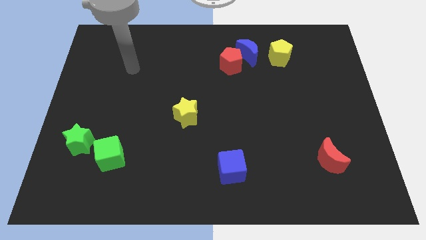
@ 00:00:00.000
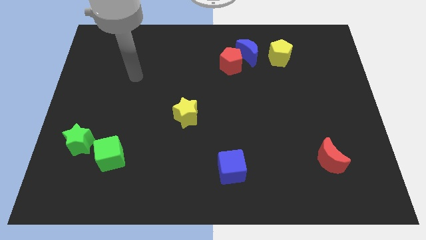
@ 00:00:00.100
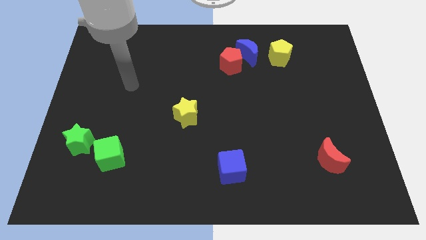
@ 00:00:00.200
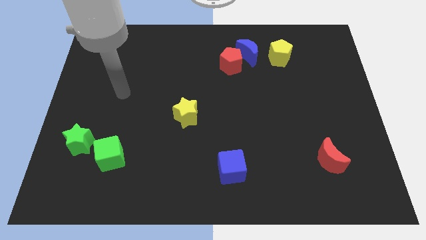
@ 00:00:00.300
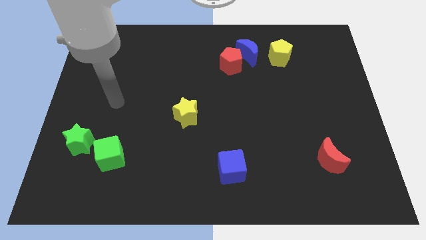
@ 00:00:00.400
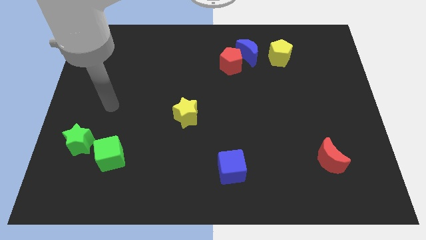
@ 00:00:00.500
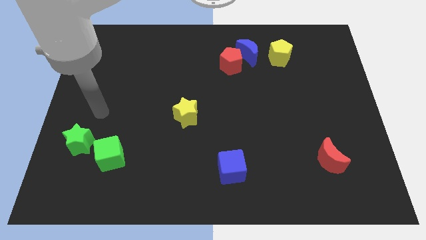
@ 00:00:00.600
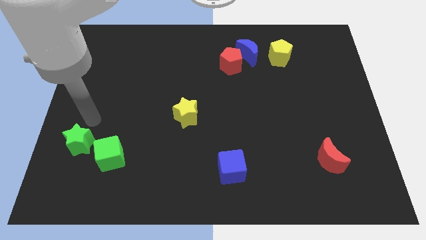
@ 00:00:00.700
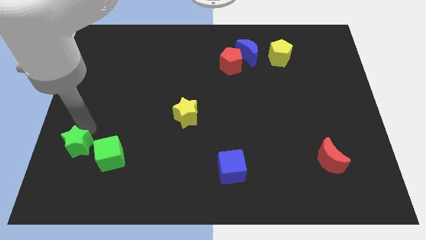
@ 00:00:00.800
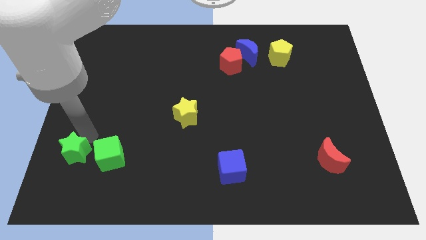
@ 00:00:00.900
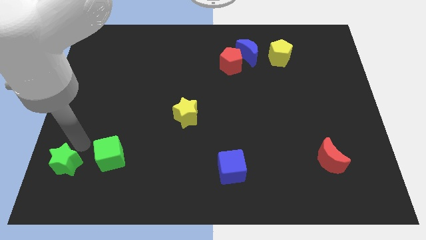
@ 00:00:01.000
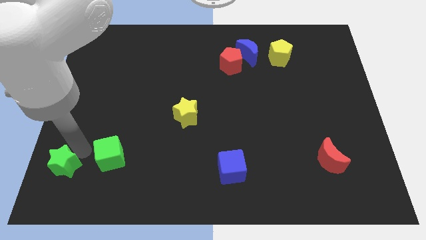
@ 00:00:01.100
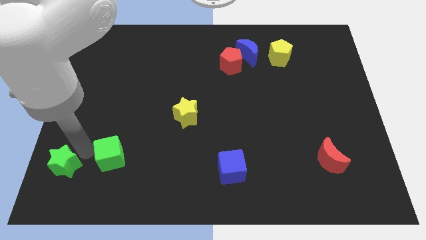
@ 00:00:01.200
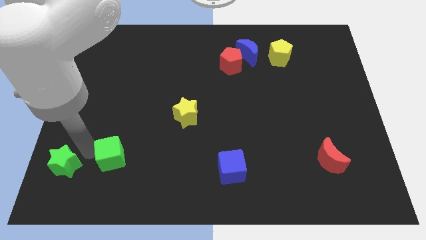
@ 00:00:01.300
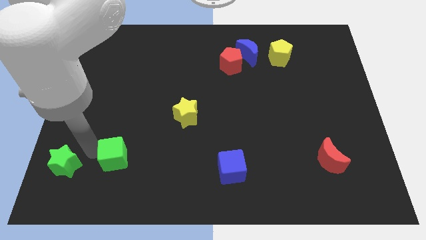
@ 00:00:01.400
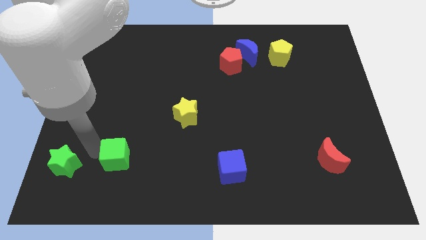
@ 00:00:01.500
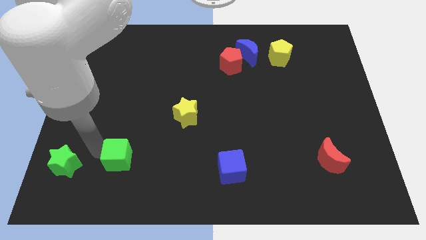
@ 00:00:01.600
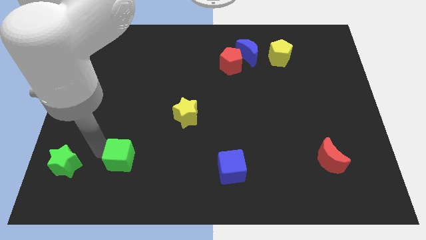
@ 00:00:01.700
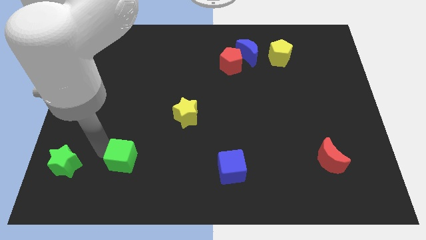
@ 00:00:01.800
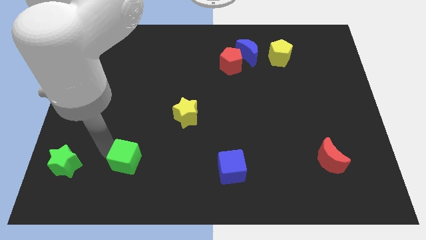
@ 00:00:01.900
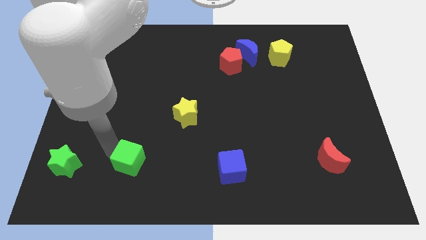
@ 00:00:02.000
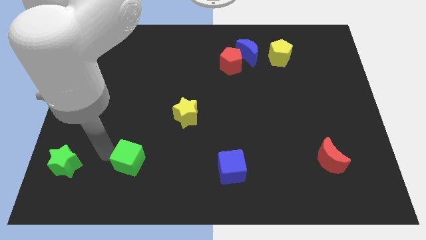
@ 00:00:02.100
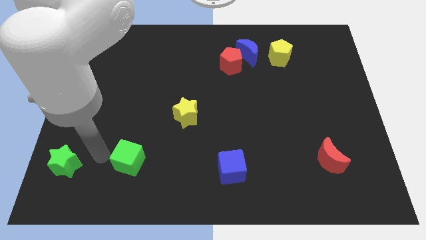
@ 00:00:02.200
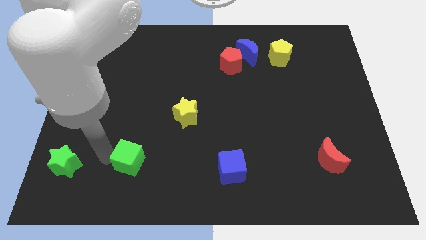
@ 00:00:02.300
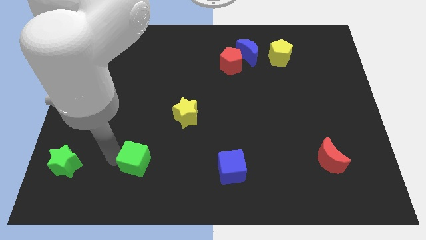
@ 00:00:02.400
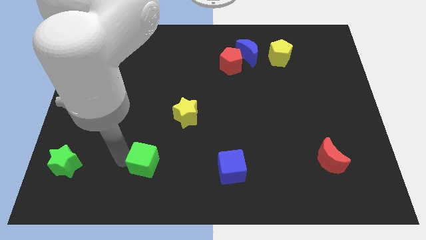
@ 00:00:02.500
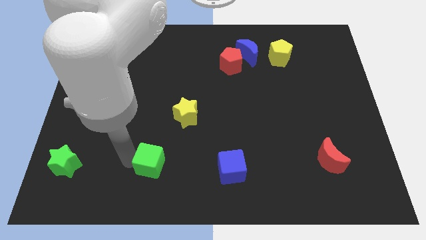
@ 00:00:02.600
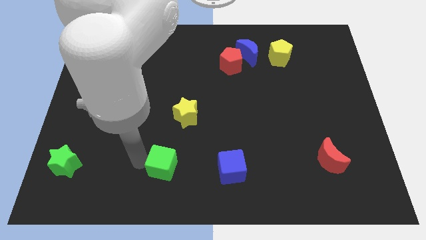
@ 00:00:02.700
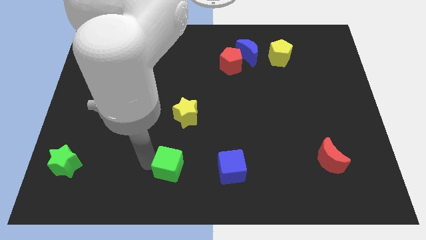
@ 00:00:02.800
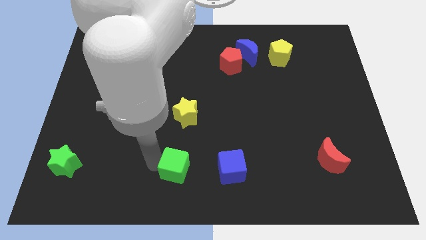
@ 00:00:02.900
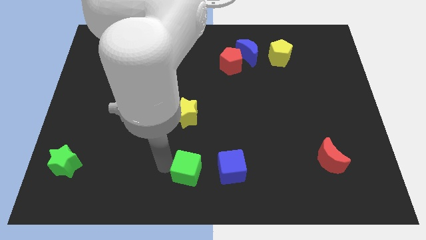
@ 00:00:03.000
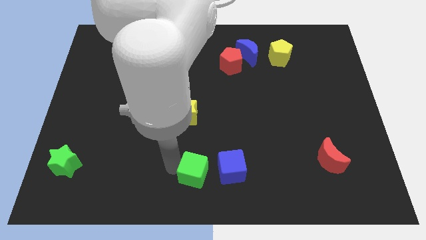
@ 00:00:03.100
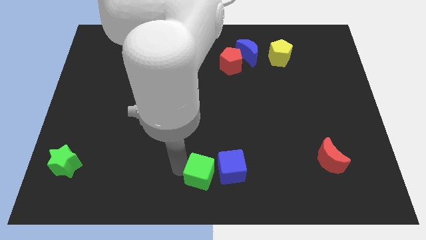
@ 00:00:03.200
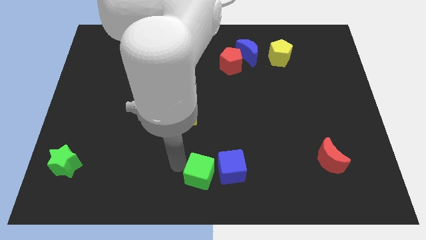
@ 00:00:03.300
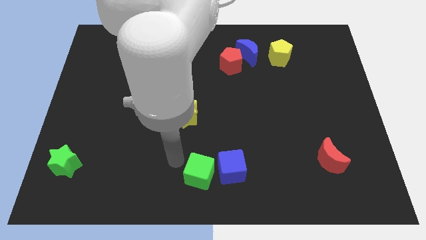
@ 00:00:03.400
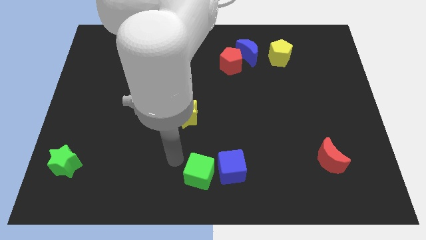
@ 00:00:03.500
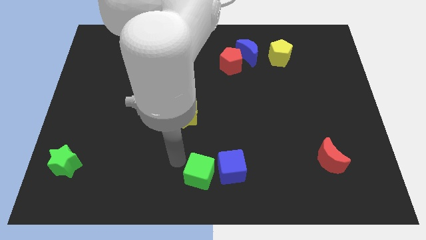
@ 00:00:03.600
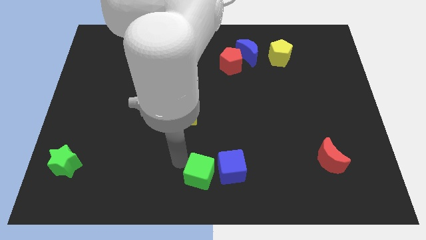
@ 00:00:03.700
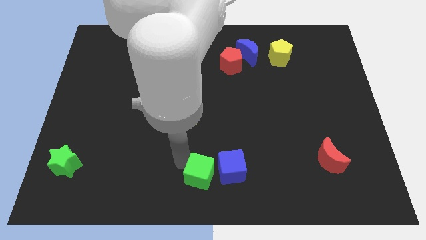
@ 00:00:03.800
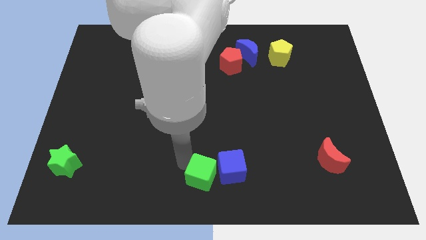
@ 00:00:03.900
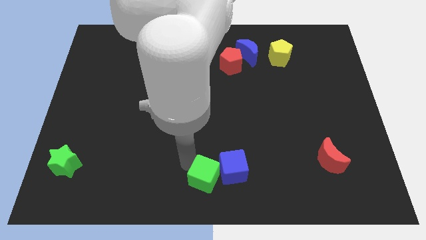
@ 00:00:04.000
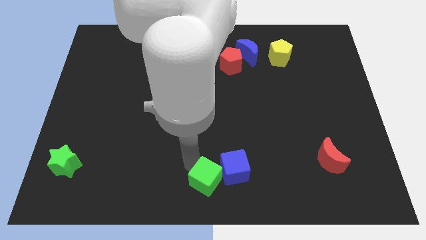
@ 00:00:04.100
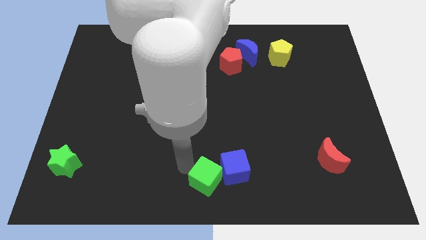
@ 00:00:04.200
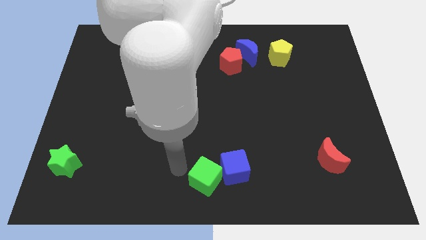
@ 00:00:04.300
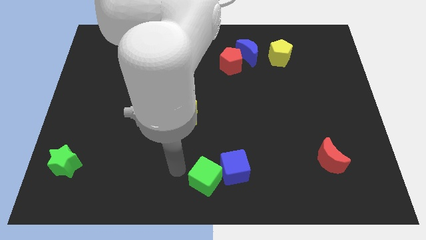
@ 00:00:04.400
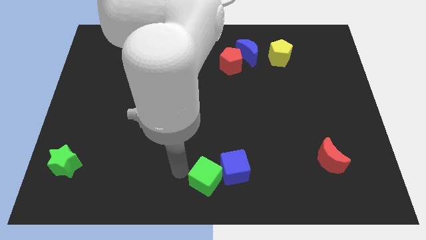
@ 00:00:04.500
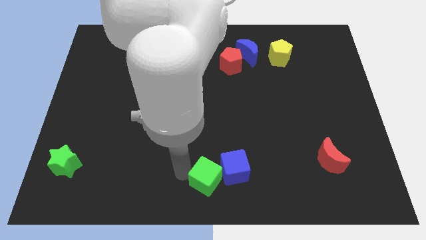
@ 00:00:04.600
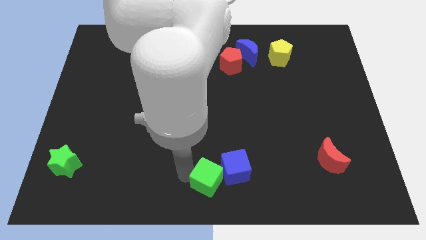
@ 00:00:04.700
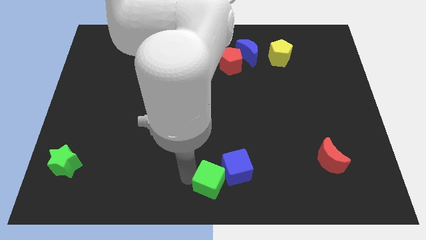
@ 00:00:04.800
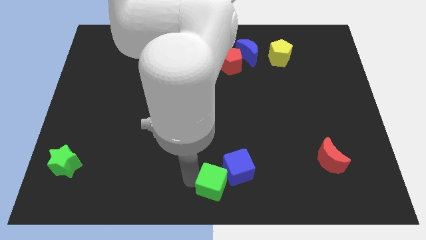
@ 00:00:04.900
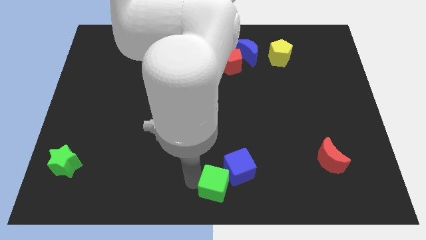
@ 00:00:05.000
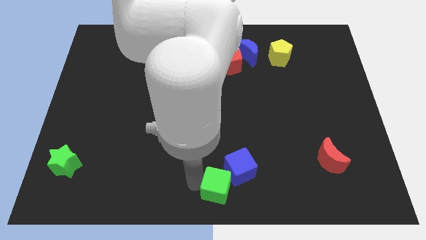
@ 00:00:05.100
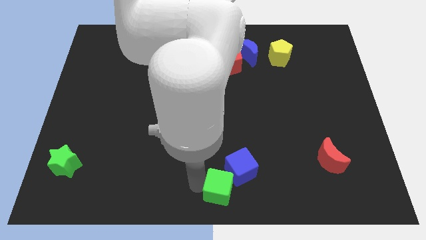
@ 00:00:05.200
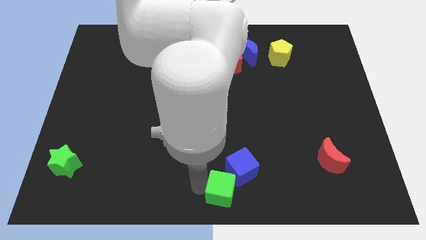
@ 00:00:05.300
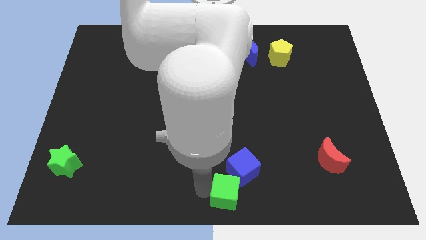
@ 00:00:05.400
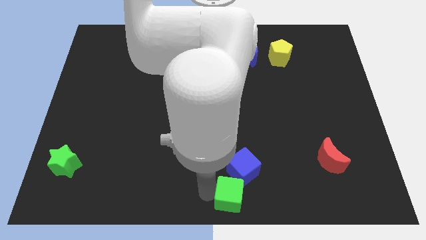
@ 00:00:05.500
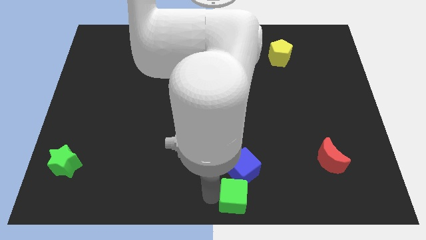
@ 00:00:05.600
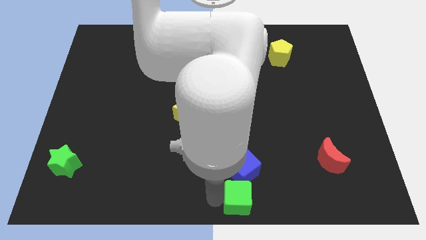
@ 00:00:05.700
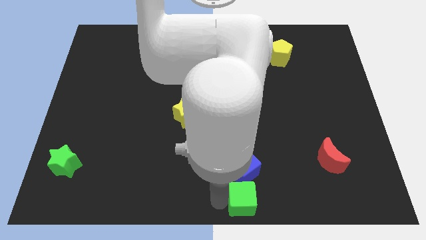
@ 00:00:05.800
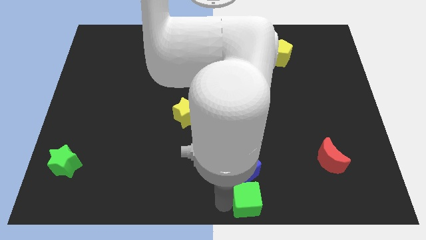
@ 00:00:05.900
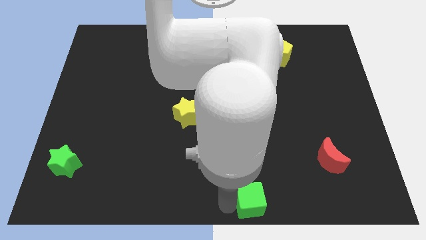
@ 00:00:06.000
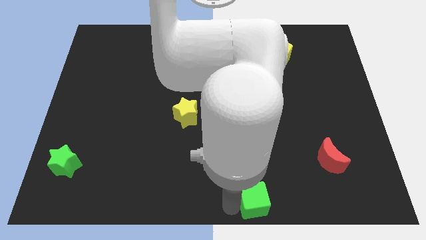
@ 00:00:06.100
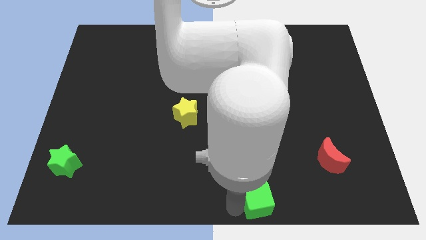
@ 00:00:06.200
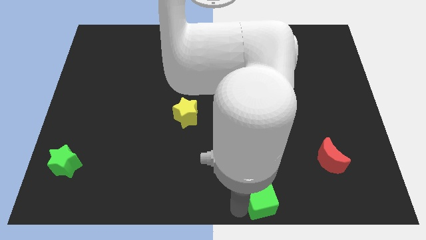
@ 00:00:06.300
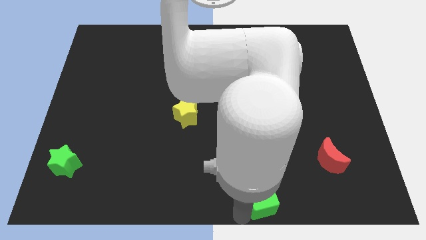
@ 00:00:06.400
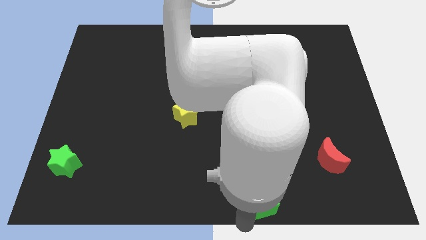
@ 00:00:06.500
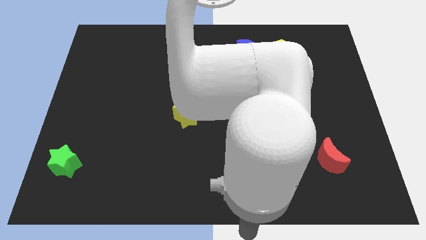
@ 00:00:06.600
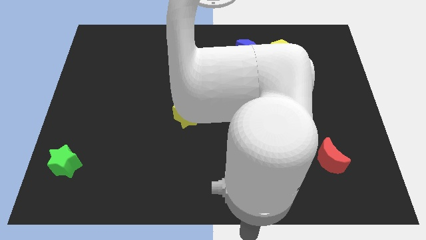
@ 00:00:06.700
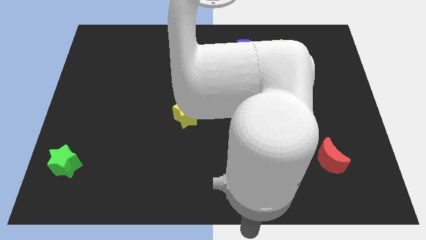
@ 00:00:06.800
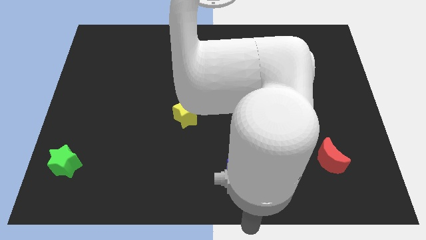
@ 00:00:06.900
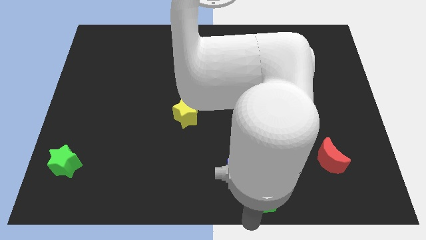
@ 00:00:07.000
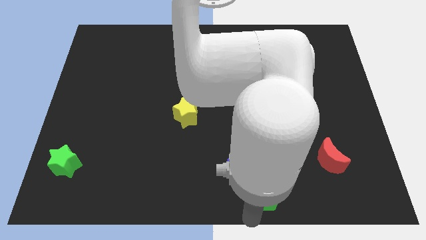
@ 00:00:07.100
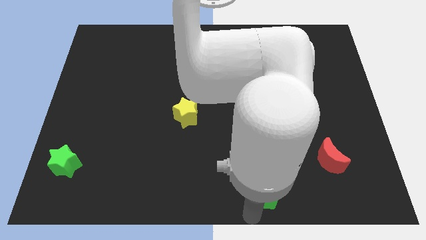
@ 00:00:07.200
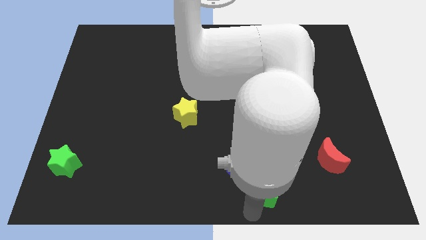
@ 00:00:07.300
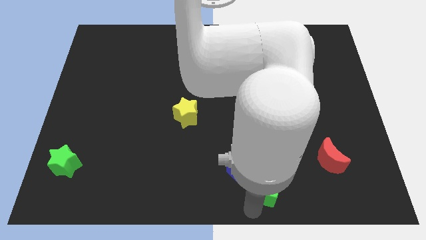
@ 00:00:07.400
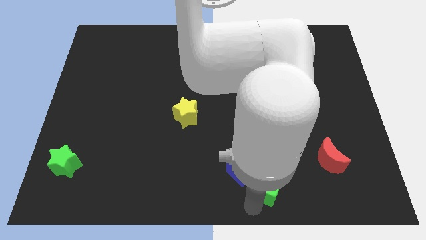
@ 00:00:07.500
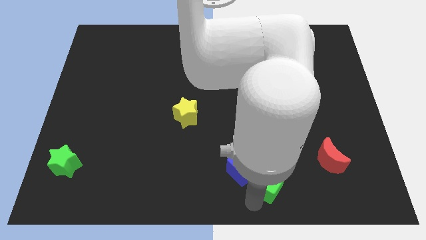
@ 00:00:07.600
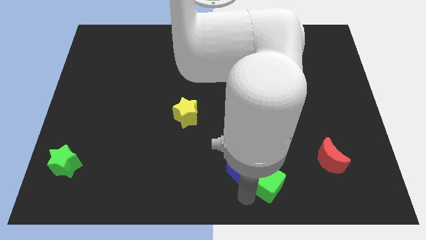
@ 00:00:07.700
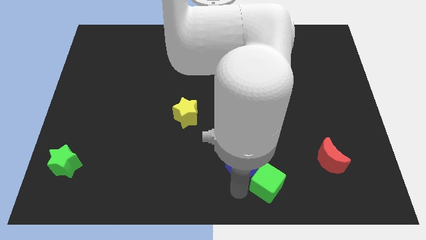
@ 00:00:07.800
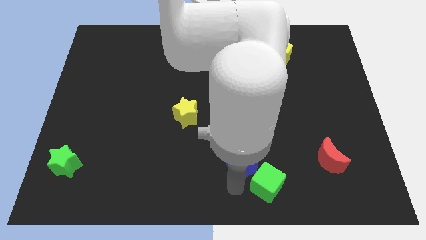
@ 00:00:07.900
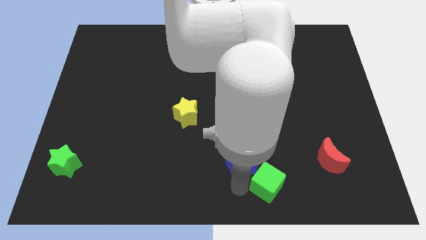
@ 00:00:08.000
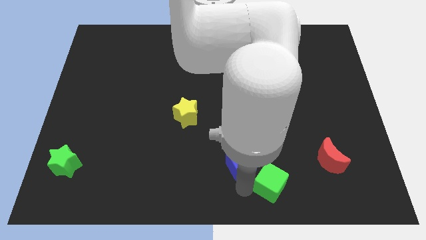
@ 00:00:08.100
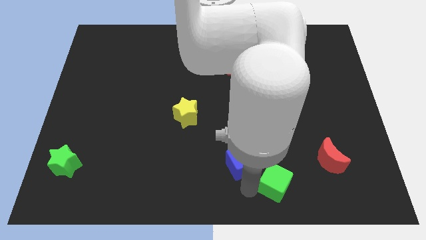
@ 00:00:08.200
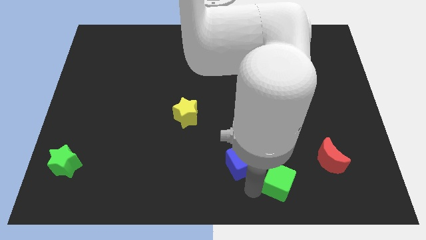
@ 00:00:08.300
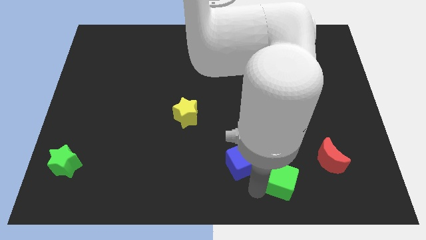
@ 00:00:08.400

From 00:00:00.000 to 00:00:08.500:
push the green cube to the bottom left side of the red moon
